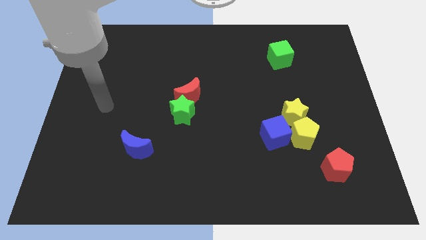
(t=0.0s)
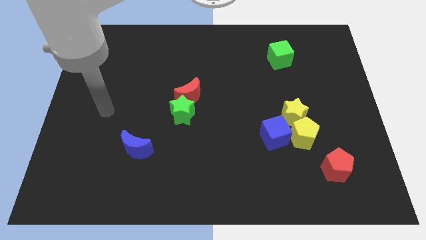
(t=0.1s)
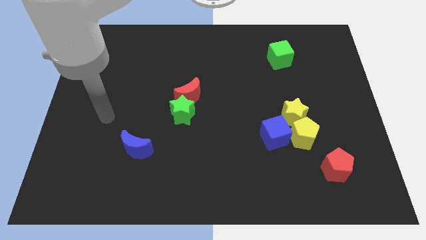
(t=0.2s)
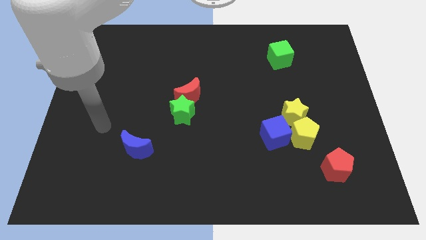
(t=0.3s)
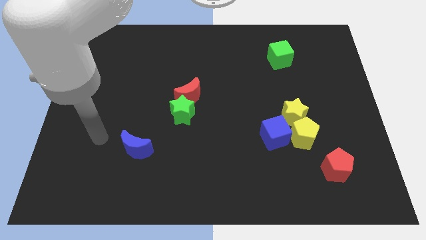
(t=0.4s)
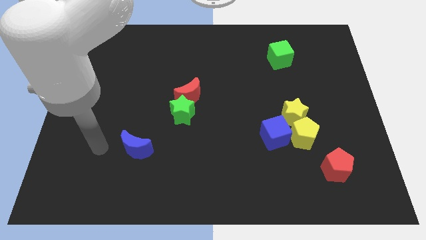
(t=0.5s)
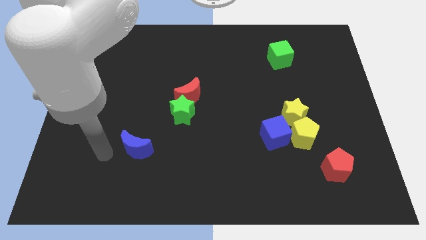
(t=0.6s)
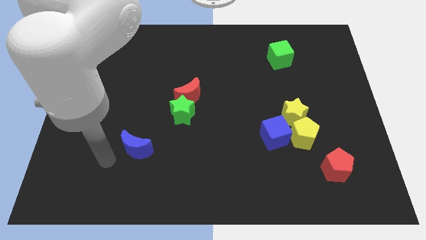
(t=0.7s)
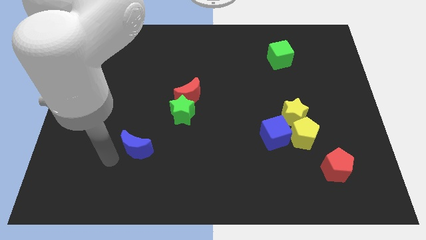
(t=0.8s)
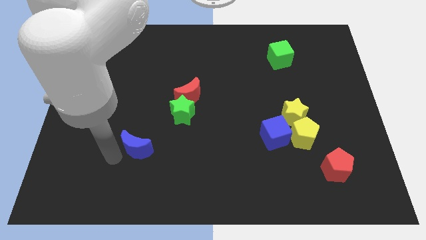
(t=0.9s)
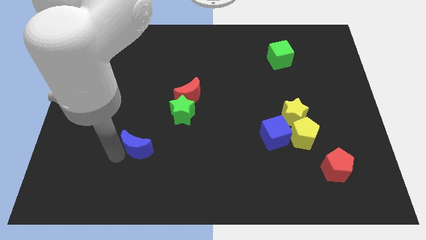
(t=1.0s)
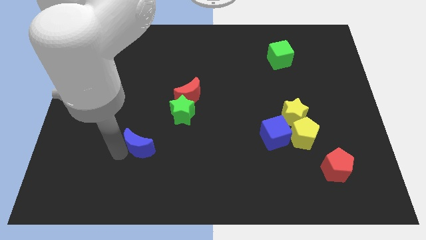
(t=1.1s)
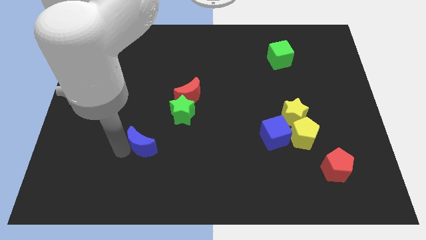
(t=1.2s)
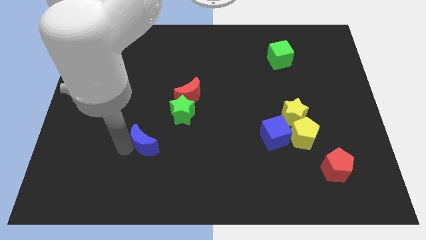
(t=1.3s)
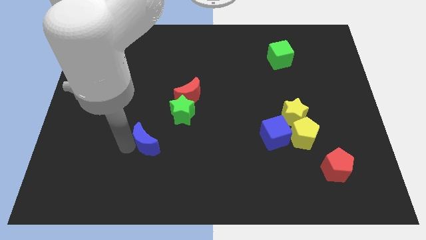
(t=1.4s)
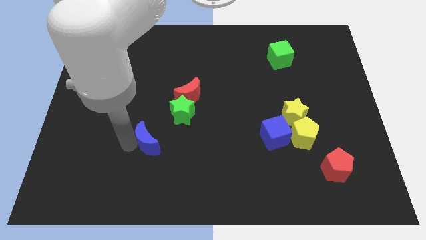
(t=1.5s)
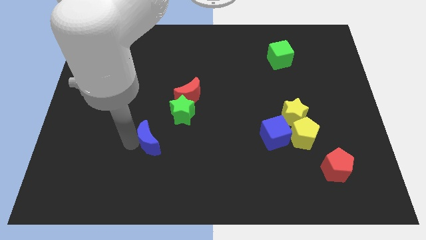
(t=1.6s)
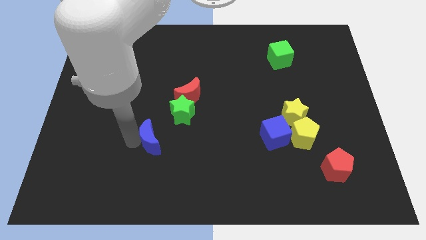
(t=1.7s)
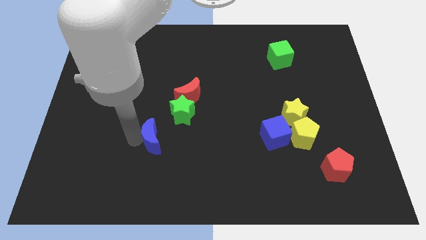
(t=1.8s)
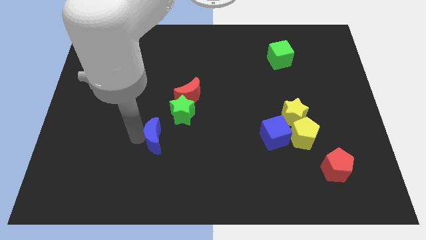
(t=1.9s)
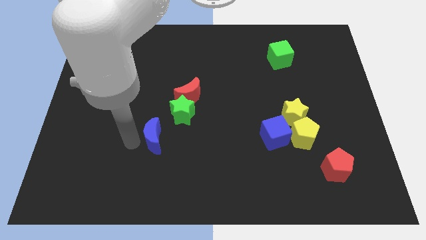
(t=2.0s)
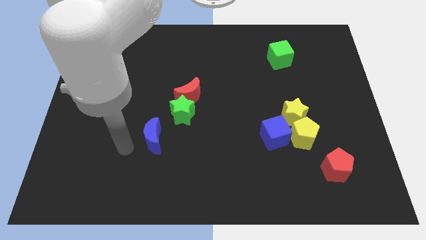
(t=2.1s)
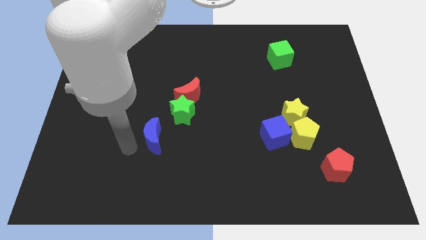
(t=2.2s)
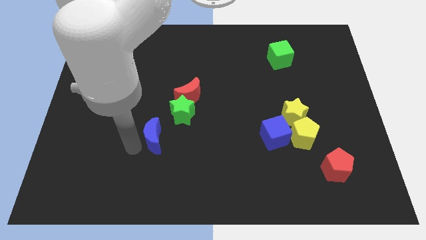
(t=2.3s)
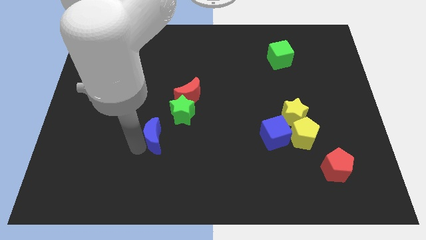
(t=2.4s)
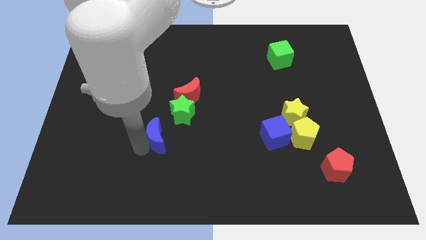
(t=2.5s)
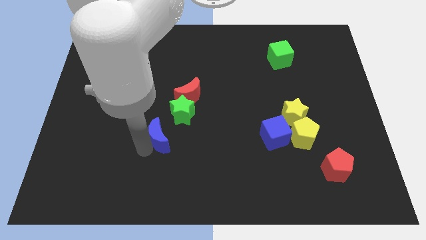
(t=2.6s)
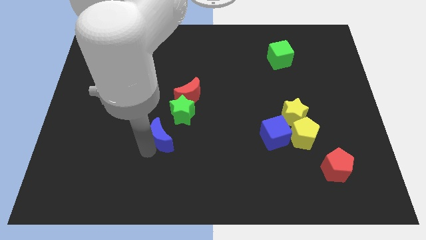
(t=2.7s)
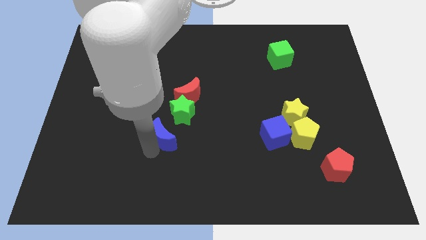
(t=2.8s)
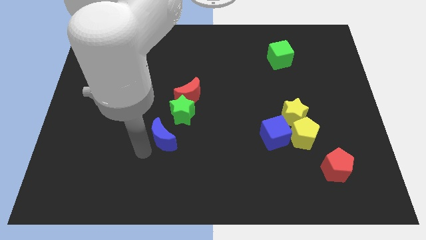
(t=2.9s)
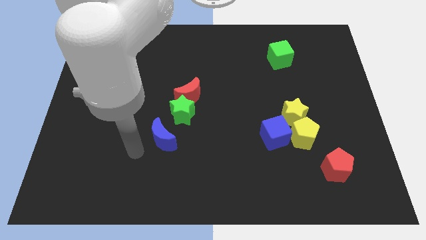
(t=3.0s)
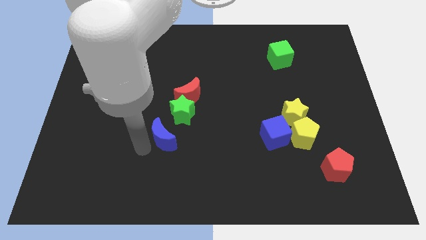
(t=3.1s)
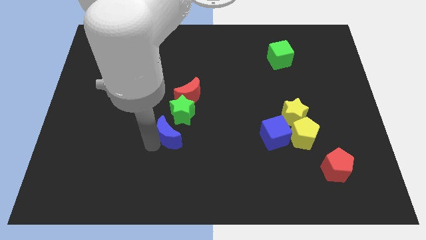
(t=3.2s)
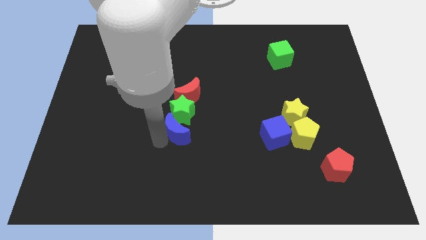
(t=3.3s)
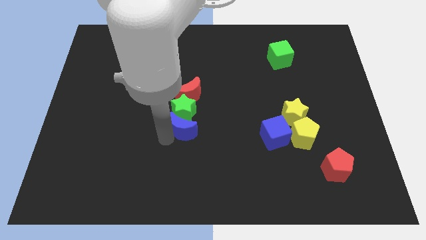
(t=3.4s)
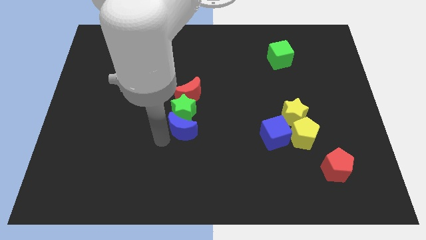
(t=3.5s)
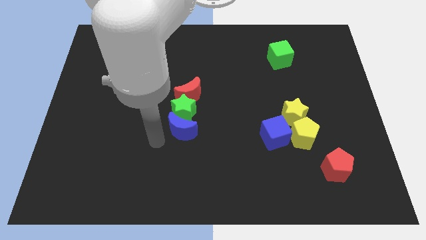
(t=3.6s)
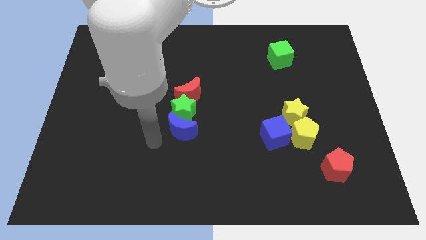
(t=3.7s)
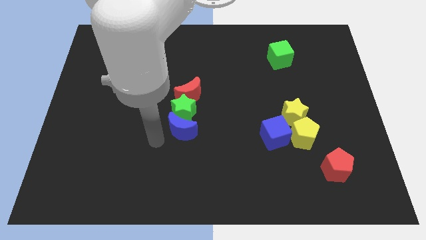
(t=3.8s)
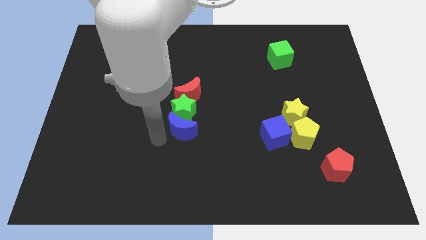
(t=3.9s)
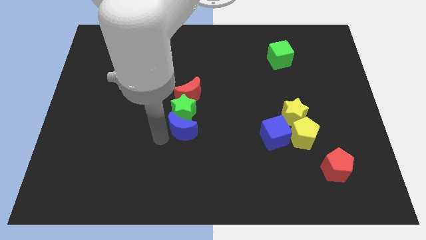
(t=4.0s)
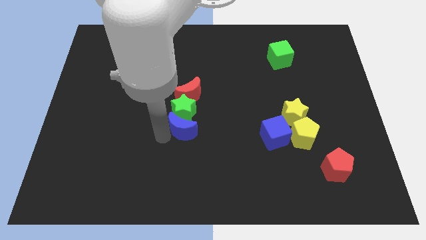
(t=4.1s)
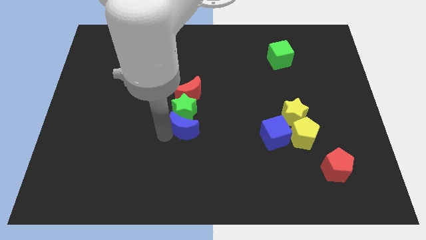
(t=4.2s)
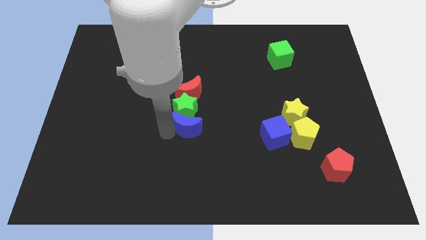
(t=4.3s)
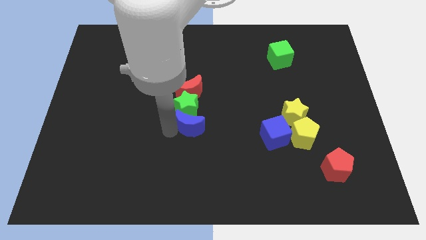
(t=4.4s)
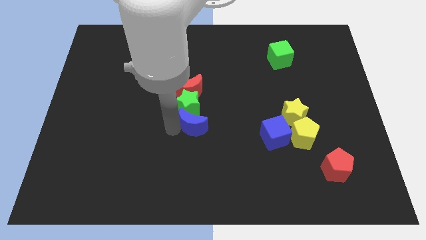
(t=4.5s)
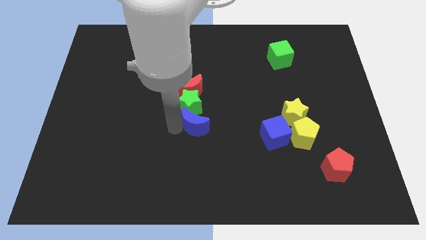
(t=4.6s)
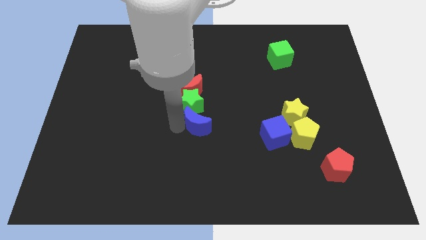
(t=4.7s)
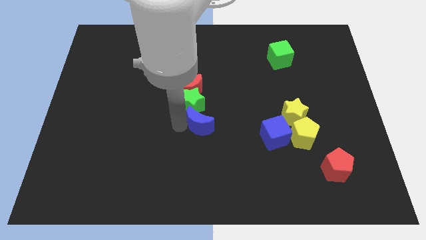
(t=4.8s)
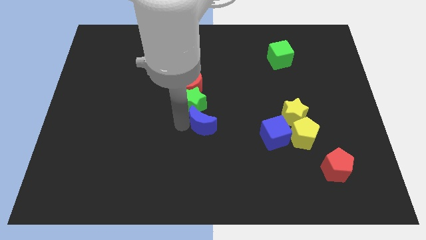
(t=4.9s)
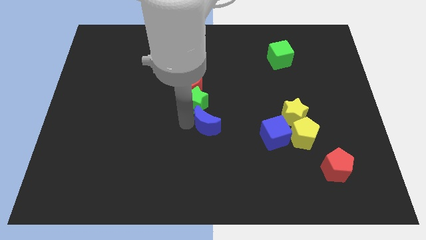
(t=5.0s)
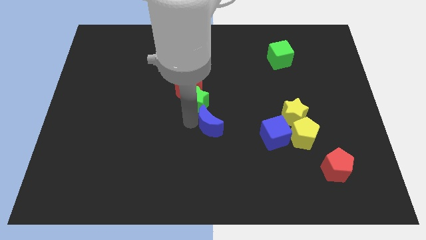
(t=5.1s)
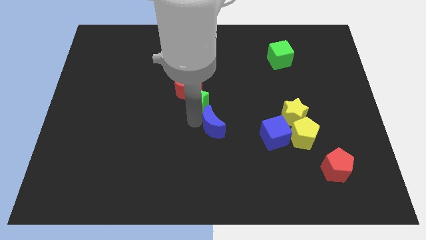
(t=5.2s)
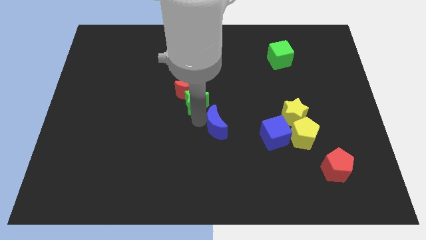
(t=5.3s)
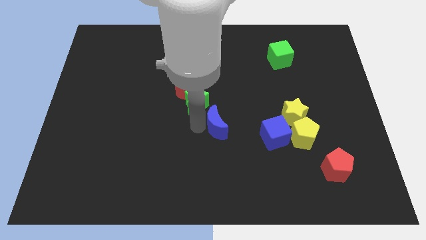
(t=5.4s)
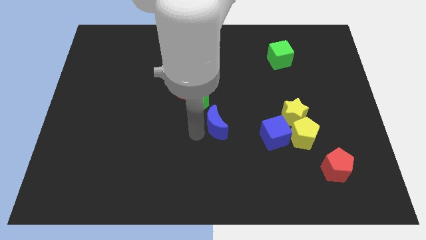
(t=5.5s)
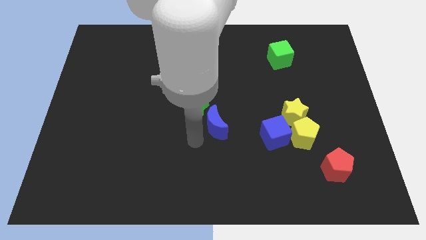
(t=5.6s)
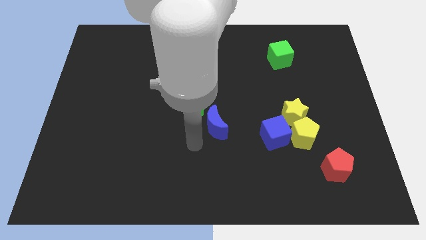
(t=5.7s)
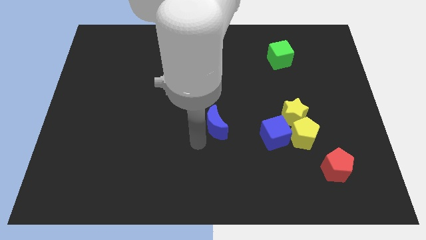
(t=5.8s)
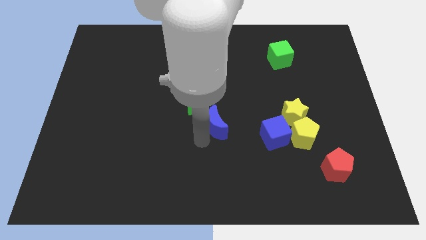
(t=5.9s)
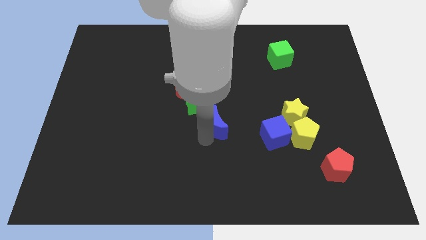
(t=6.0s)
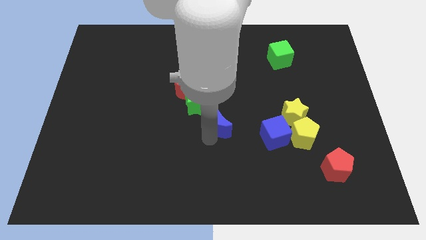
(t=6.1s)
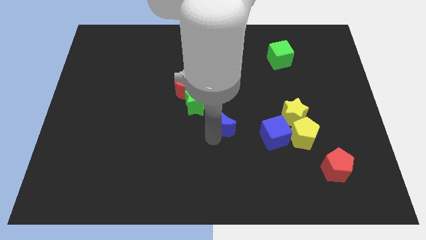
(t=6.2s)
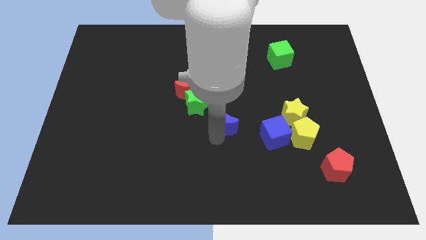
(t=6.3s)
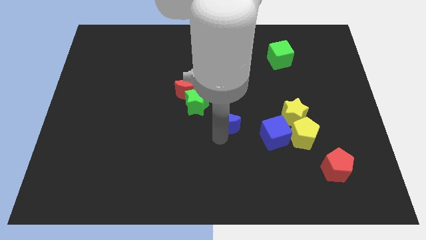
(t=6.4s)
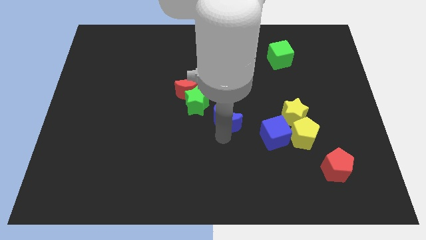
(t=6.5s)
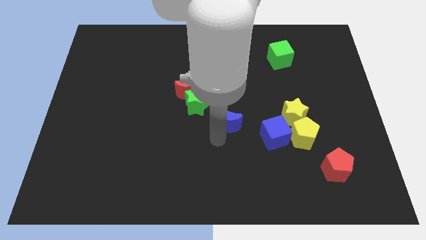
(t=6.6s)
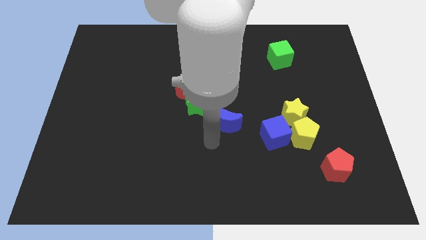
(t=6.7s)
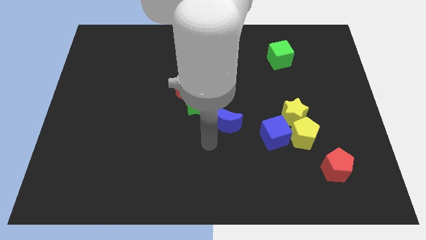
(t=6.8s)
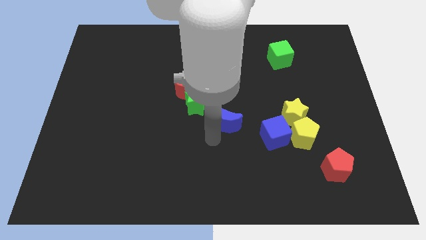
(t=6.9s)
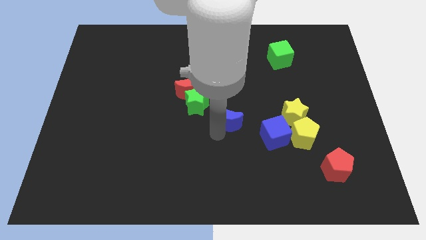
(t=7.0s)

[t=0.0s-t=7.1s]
push the blue moon to the right side of the green star

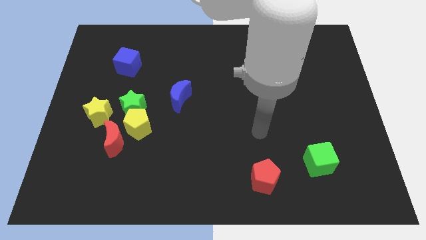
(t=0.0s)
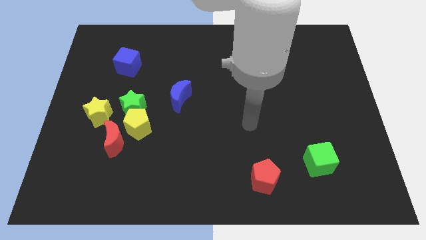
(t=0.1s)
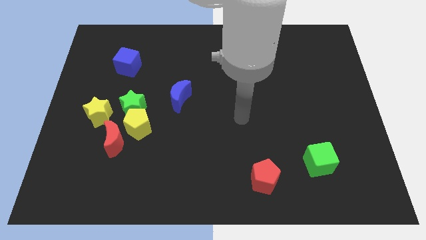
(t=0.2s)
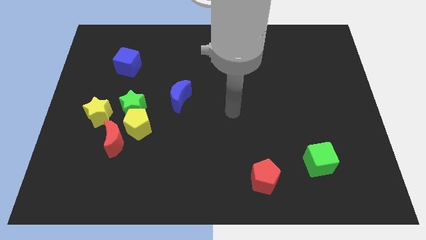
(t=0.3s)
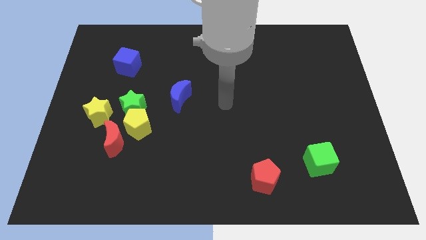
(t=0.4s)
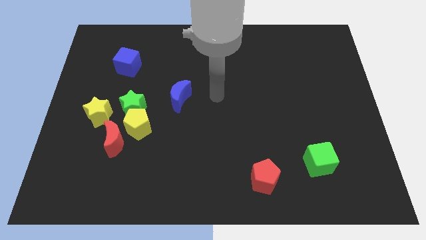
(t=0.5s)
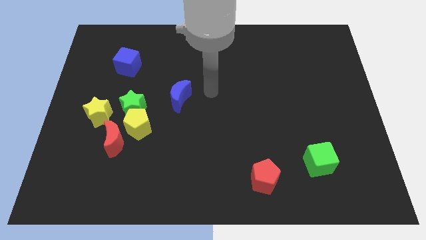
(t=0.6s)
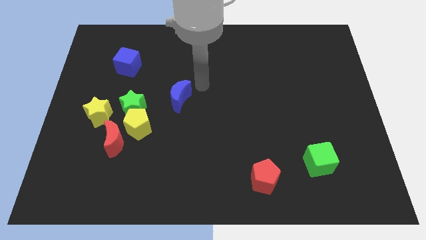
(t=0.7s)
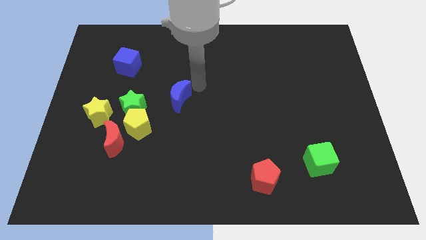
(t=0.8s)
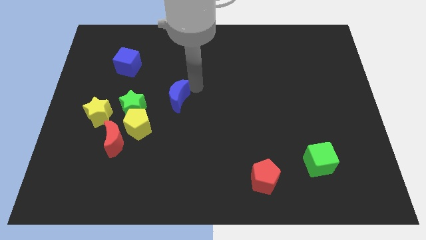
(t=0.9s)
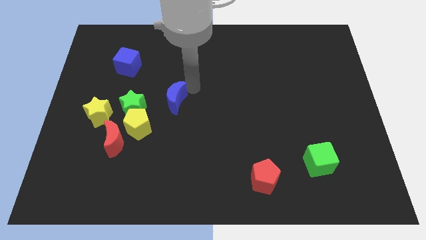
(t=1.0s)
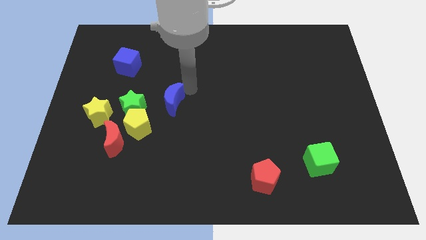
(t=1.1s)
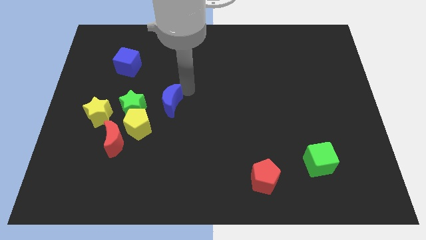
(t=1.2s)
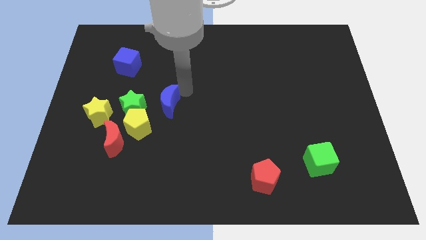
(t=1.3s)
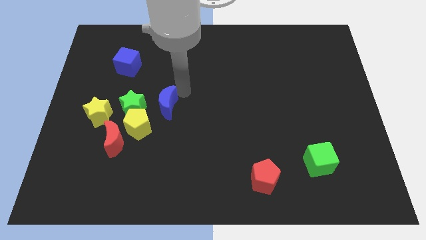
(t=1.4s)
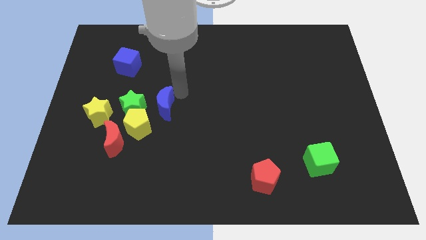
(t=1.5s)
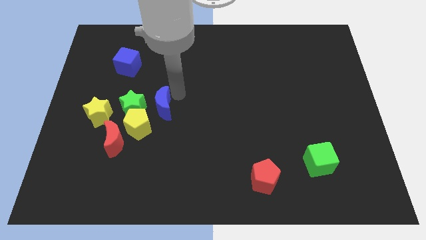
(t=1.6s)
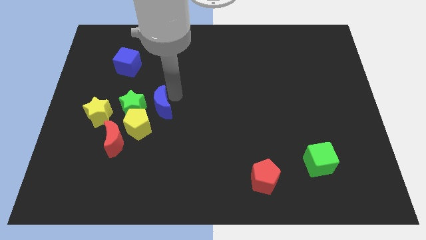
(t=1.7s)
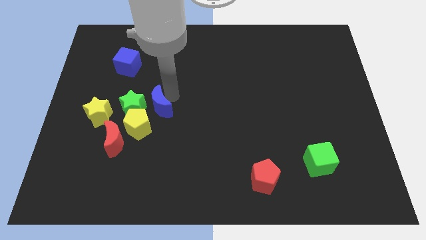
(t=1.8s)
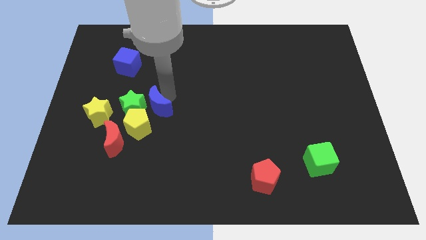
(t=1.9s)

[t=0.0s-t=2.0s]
push the blue moon to the top right side of the red moon
